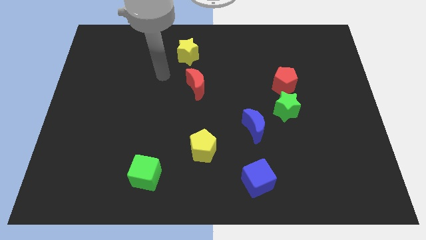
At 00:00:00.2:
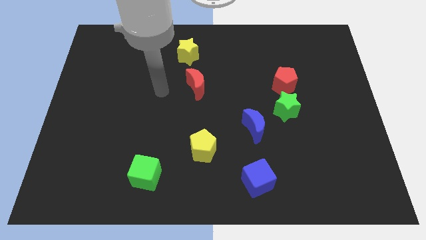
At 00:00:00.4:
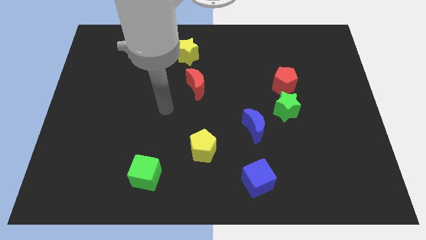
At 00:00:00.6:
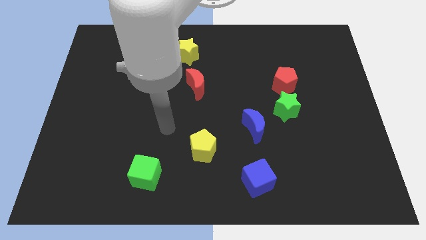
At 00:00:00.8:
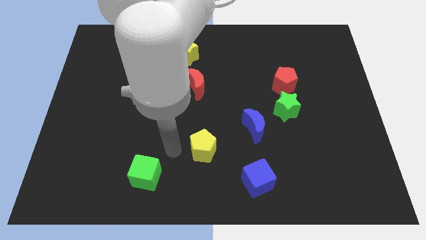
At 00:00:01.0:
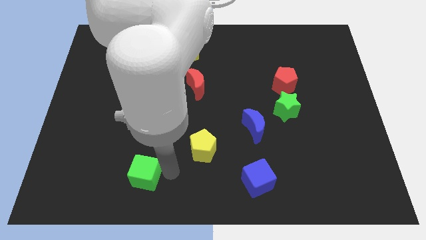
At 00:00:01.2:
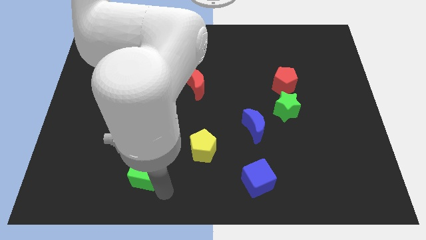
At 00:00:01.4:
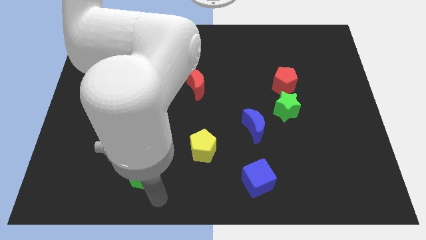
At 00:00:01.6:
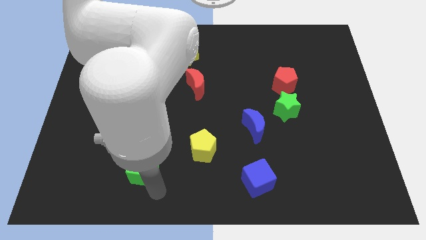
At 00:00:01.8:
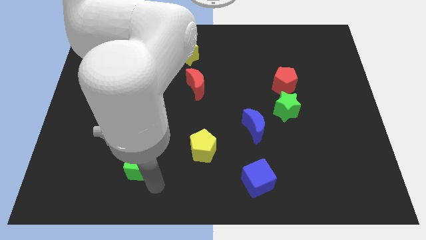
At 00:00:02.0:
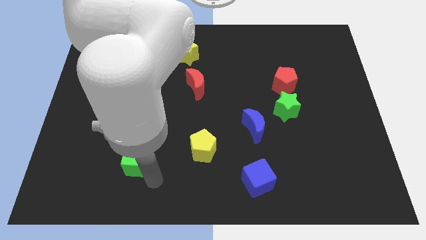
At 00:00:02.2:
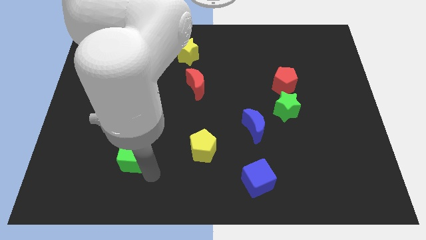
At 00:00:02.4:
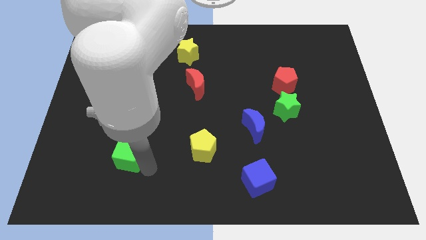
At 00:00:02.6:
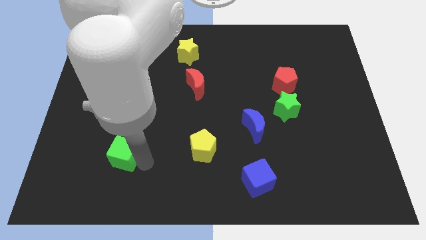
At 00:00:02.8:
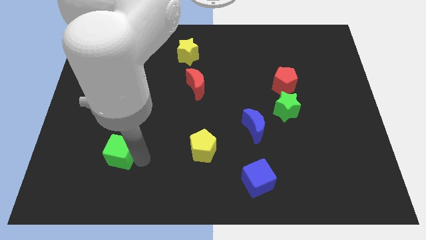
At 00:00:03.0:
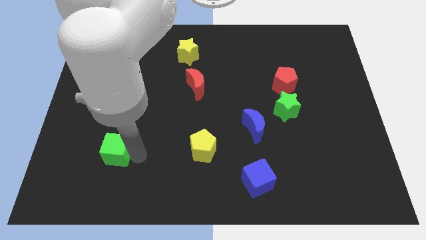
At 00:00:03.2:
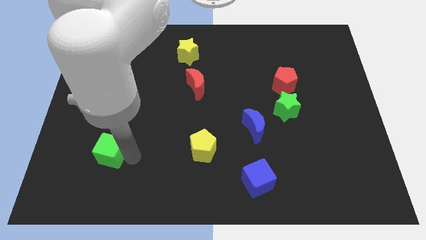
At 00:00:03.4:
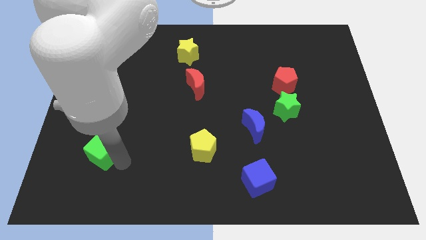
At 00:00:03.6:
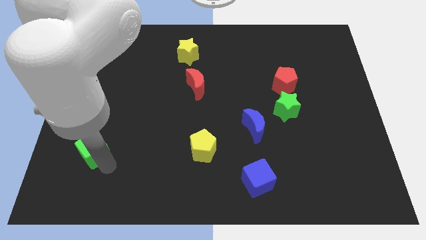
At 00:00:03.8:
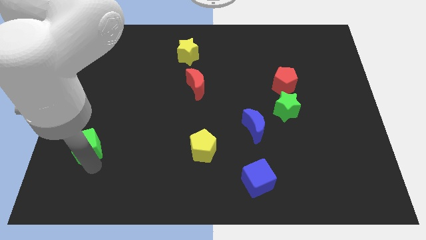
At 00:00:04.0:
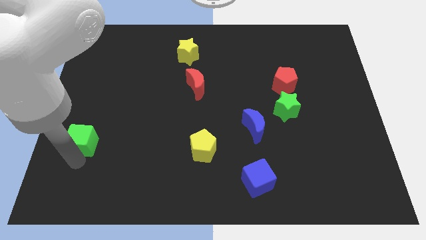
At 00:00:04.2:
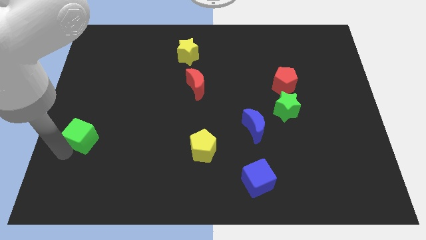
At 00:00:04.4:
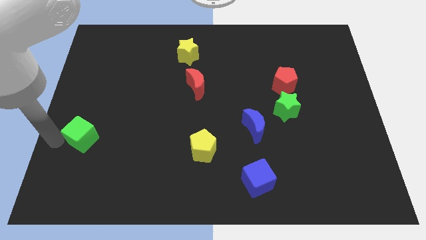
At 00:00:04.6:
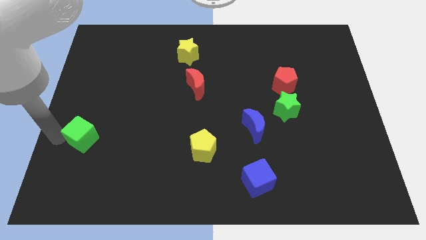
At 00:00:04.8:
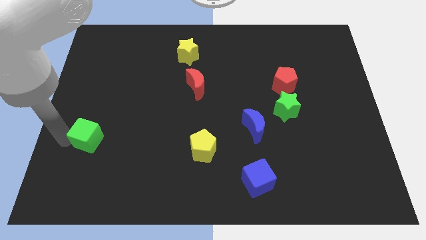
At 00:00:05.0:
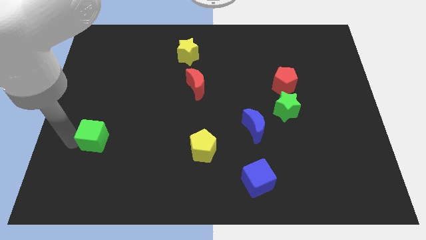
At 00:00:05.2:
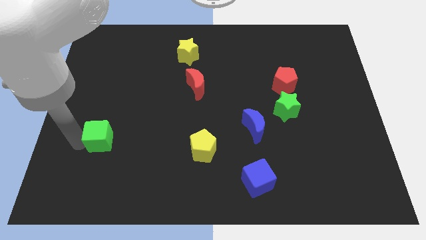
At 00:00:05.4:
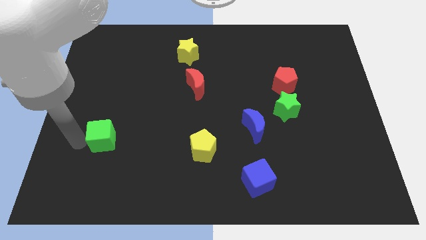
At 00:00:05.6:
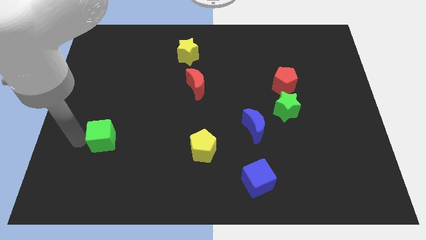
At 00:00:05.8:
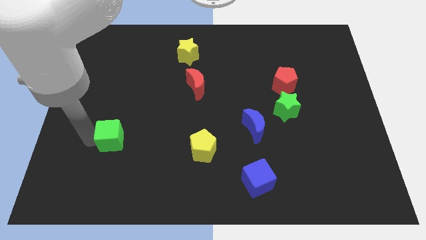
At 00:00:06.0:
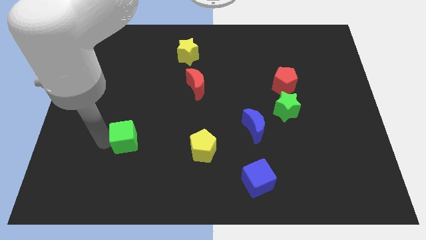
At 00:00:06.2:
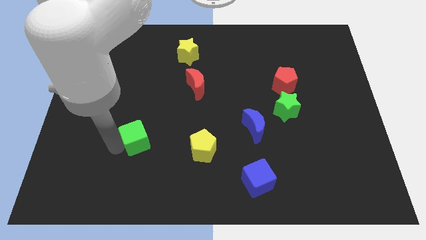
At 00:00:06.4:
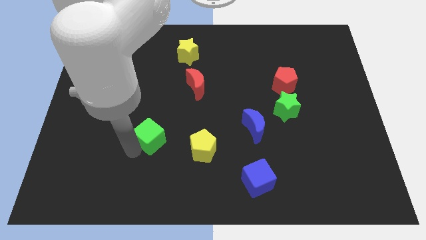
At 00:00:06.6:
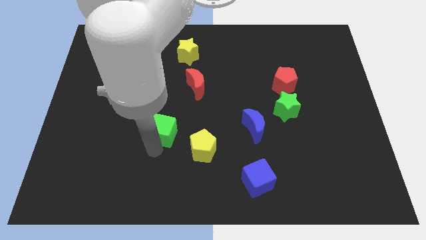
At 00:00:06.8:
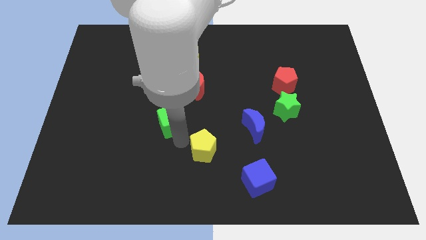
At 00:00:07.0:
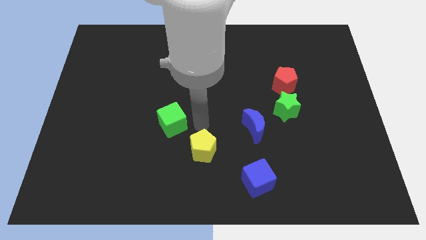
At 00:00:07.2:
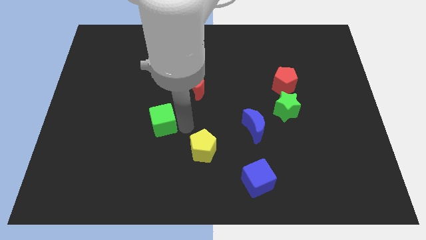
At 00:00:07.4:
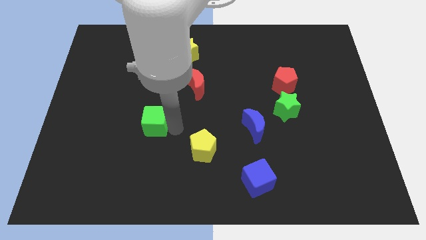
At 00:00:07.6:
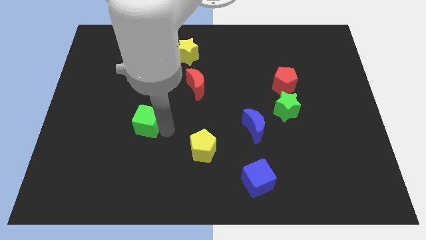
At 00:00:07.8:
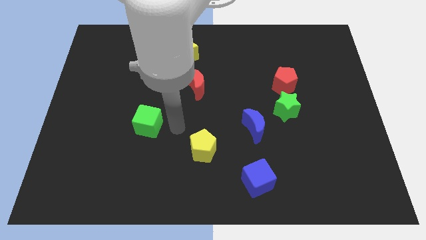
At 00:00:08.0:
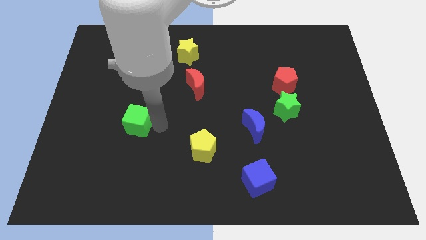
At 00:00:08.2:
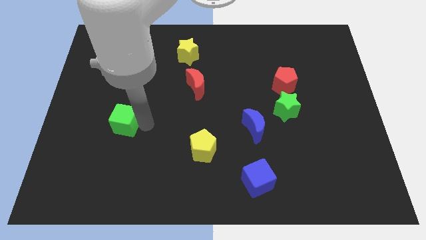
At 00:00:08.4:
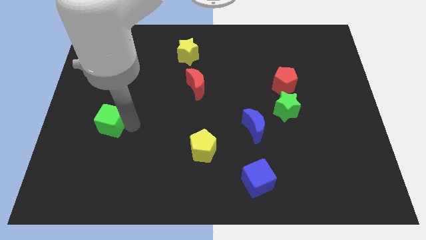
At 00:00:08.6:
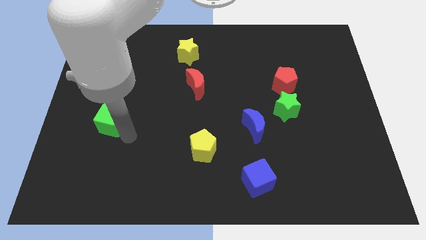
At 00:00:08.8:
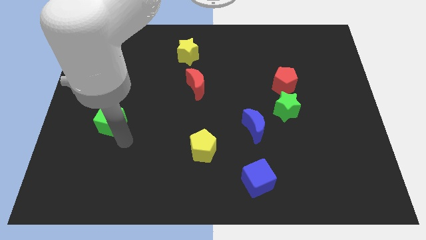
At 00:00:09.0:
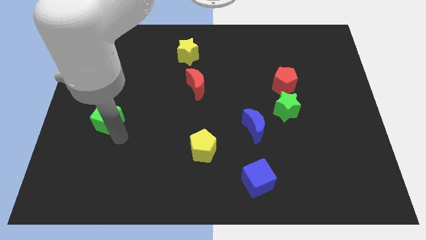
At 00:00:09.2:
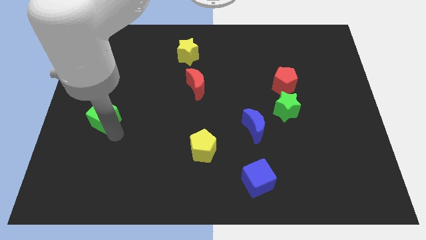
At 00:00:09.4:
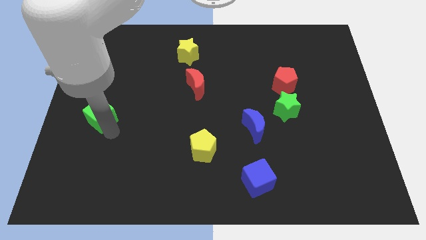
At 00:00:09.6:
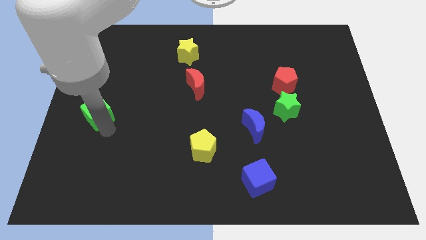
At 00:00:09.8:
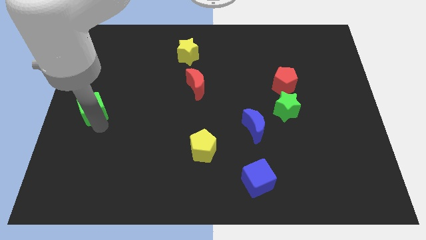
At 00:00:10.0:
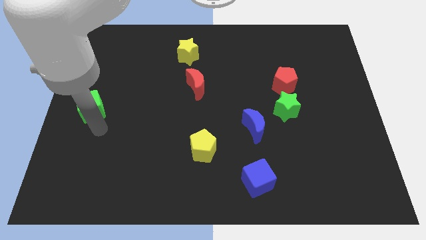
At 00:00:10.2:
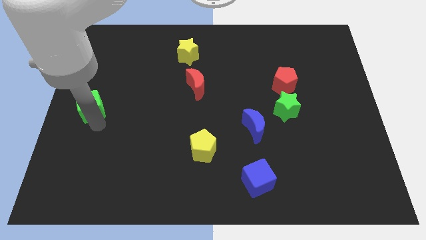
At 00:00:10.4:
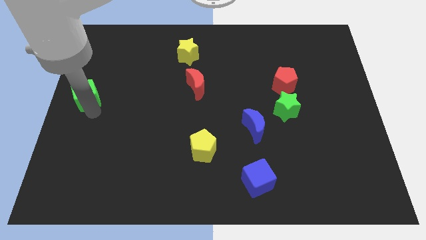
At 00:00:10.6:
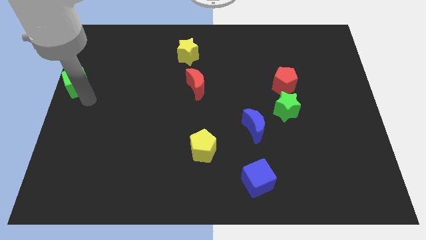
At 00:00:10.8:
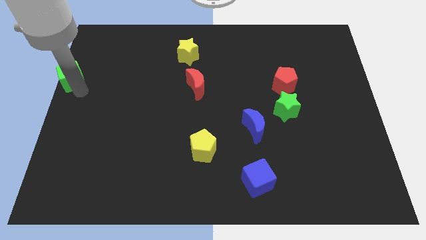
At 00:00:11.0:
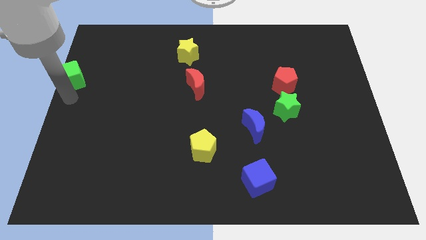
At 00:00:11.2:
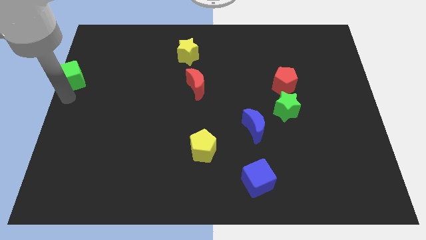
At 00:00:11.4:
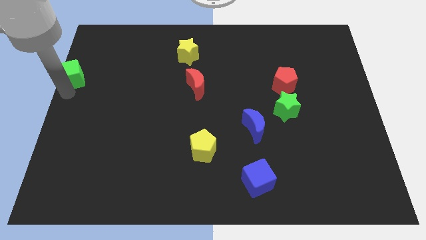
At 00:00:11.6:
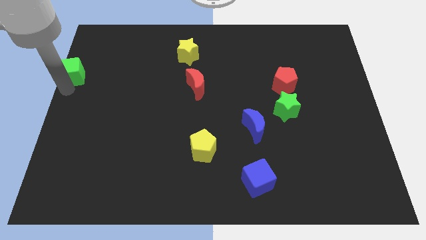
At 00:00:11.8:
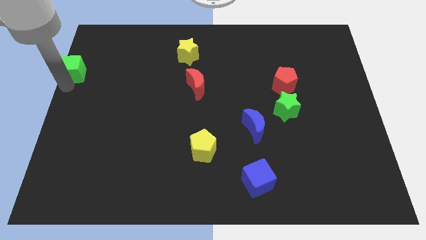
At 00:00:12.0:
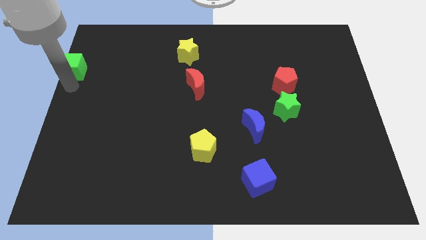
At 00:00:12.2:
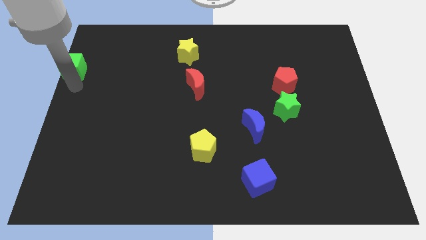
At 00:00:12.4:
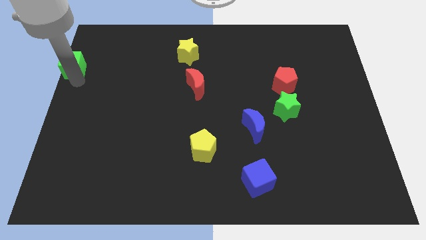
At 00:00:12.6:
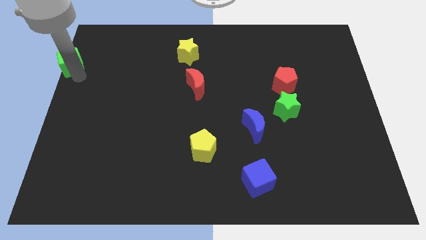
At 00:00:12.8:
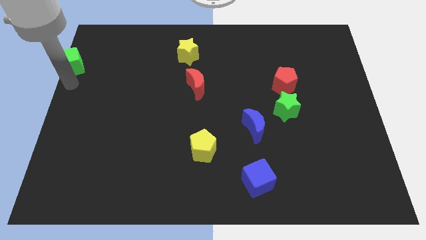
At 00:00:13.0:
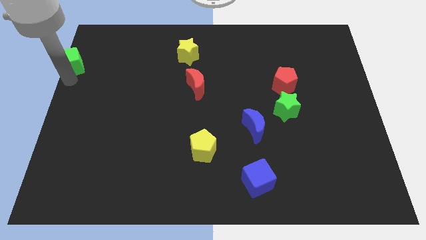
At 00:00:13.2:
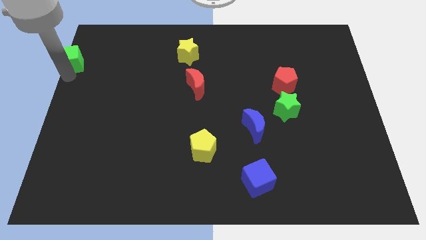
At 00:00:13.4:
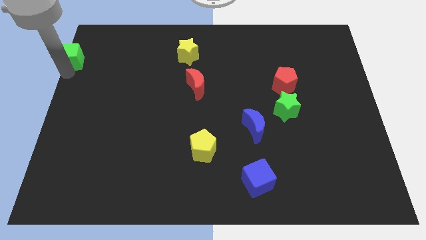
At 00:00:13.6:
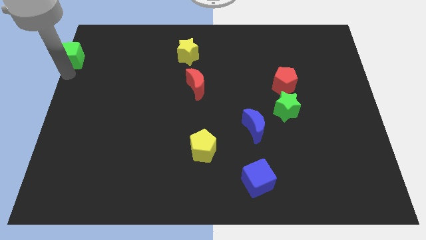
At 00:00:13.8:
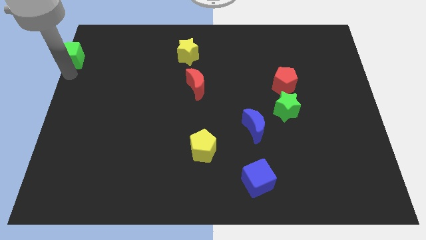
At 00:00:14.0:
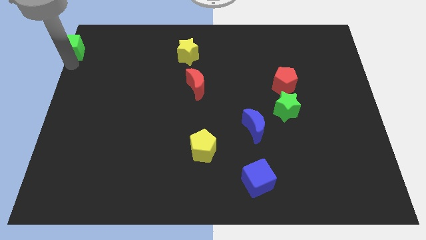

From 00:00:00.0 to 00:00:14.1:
put the green cube to the top left of the board

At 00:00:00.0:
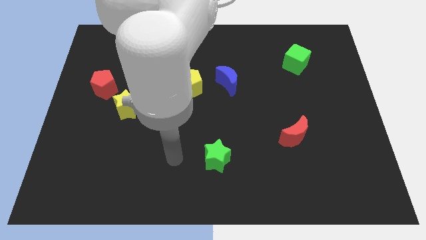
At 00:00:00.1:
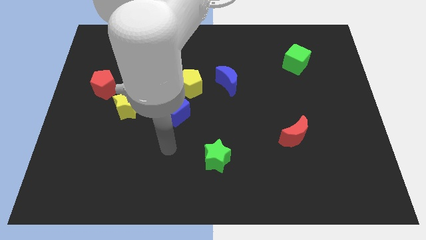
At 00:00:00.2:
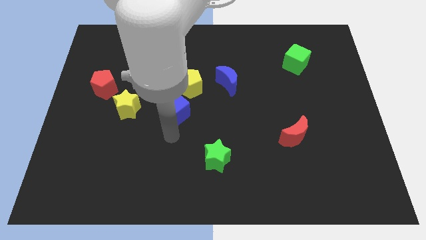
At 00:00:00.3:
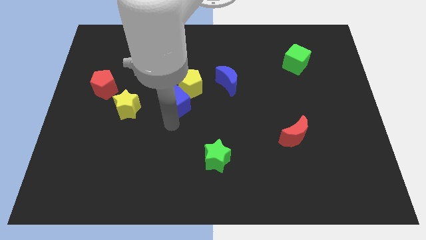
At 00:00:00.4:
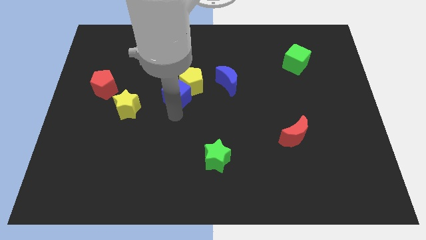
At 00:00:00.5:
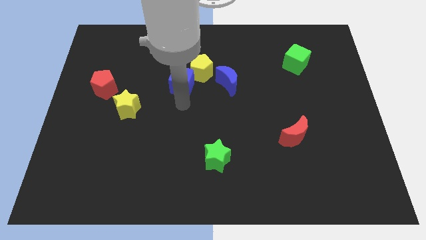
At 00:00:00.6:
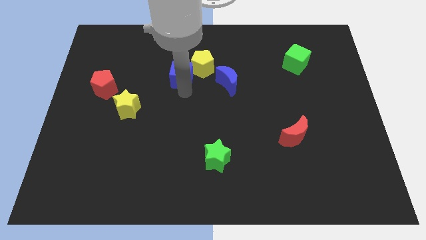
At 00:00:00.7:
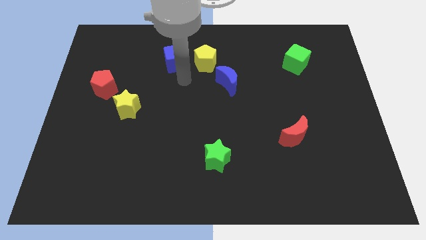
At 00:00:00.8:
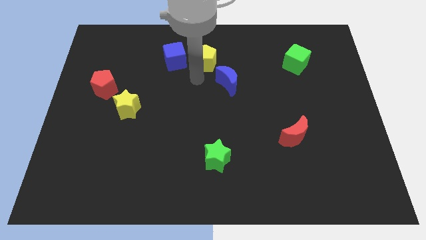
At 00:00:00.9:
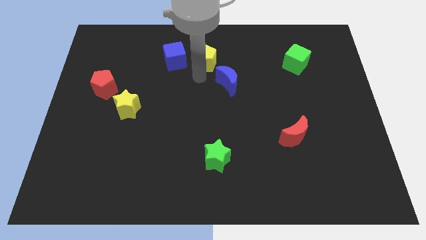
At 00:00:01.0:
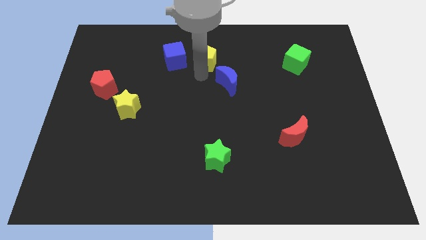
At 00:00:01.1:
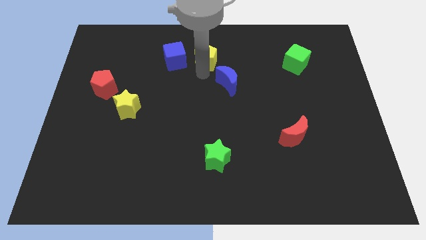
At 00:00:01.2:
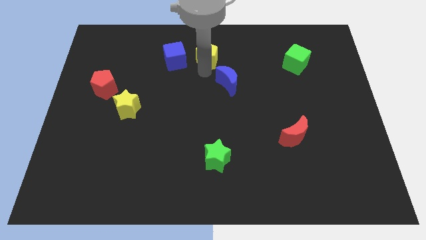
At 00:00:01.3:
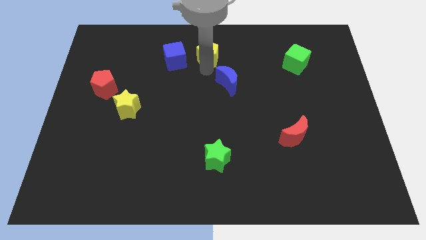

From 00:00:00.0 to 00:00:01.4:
move the yellow pentagon to the towards your base
